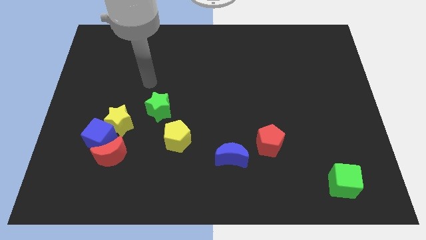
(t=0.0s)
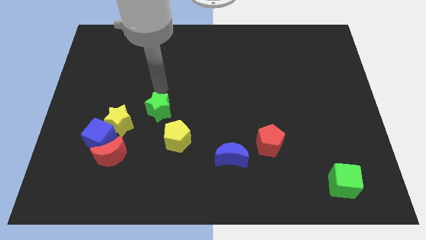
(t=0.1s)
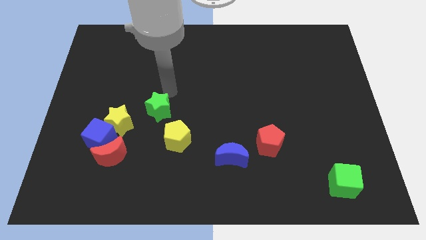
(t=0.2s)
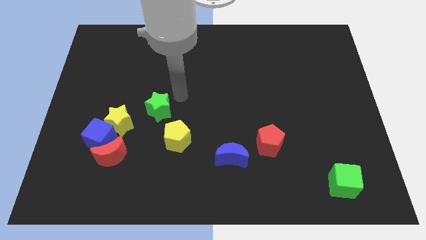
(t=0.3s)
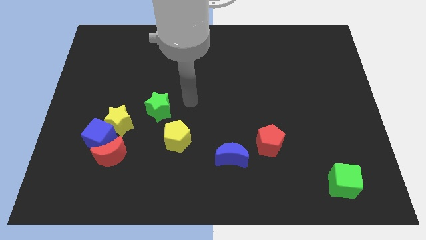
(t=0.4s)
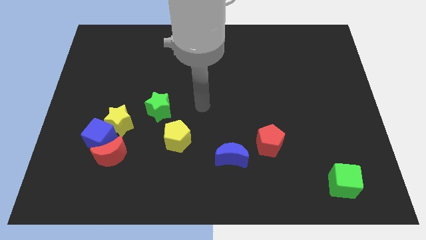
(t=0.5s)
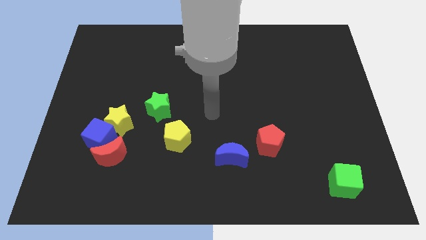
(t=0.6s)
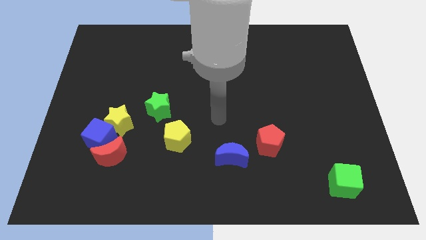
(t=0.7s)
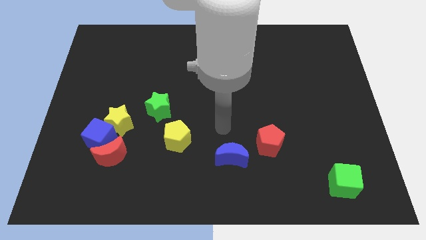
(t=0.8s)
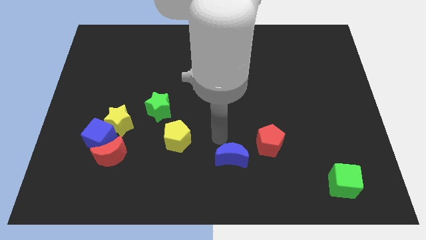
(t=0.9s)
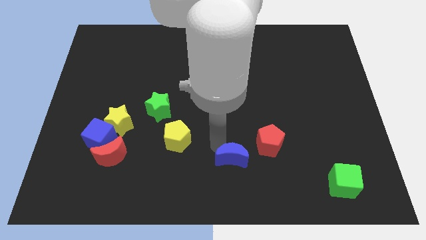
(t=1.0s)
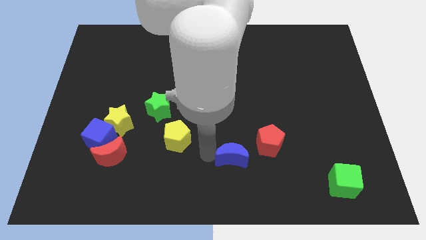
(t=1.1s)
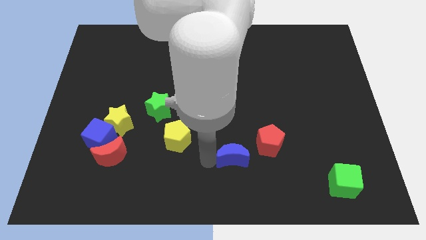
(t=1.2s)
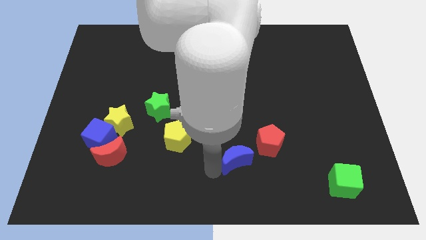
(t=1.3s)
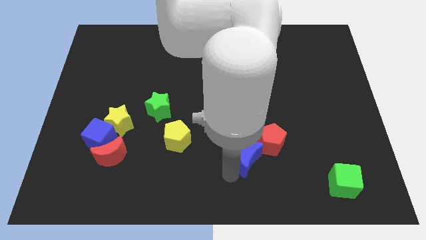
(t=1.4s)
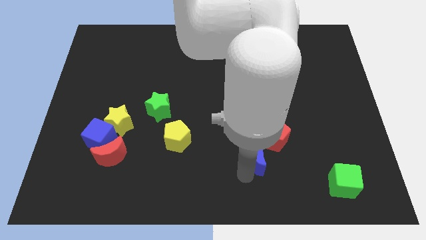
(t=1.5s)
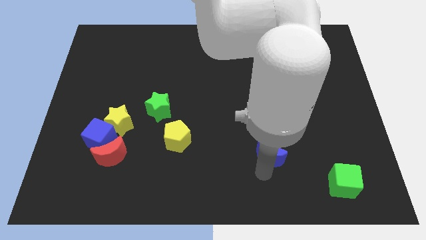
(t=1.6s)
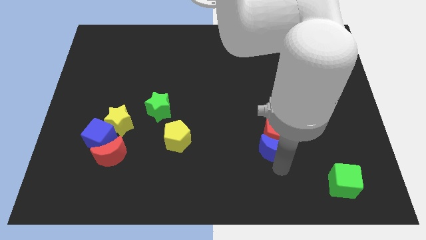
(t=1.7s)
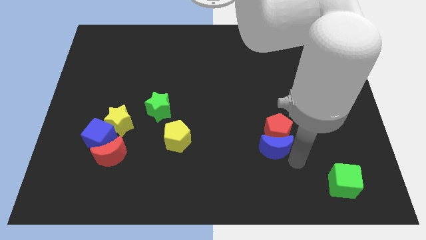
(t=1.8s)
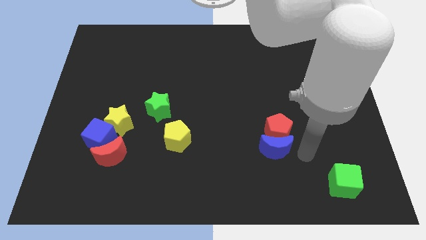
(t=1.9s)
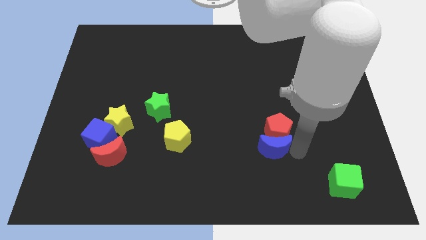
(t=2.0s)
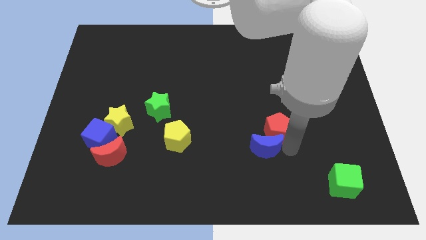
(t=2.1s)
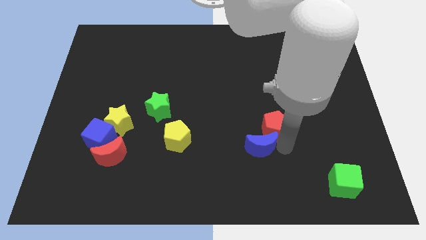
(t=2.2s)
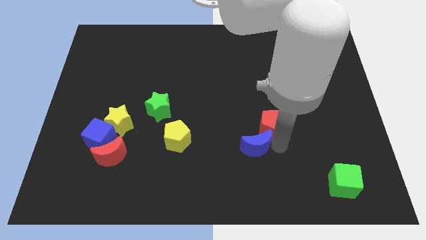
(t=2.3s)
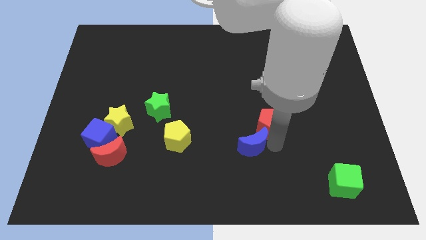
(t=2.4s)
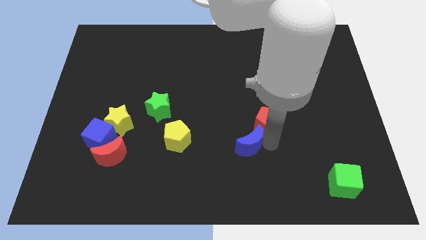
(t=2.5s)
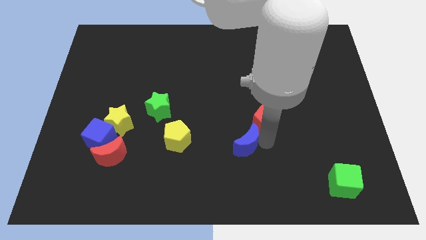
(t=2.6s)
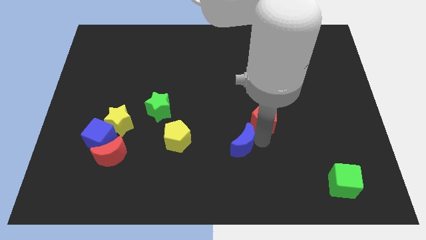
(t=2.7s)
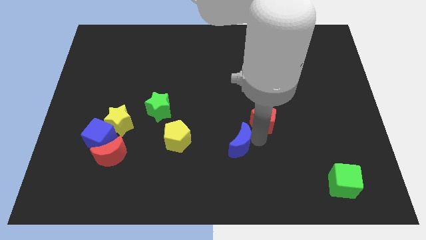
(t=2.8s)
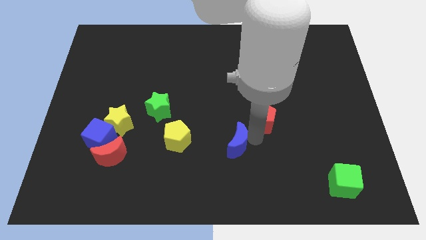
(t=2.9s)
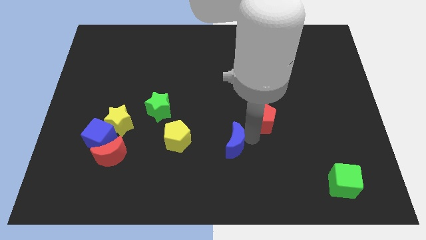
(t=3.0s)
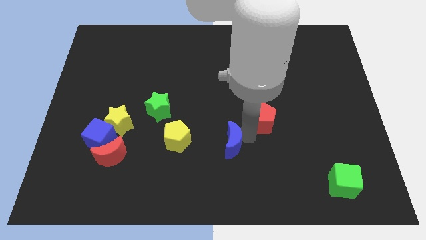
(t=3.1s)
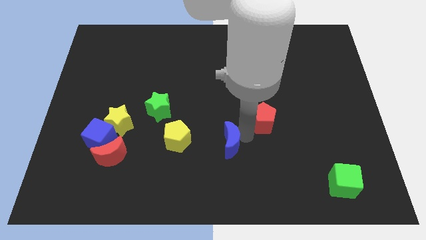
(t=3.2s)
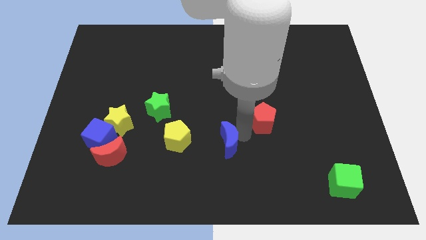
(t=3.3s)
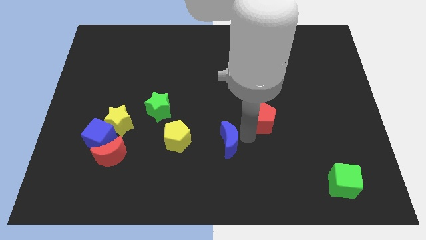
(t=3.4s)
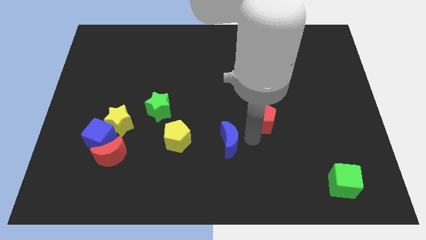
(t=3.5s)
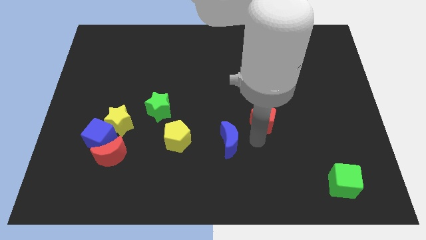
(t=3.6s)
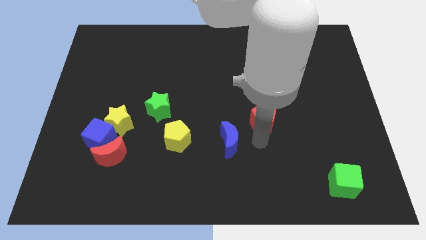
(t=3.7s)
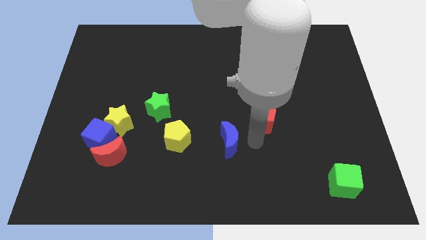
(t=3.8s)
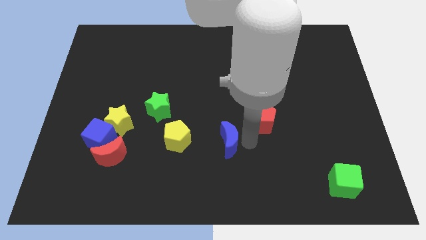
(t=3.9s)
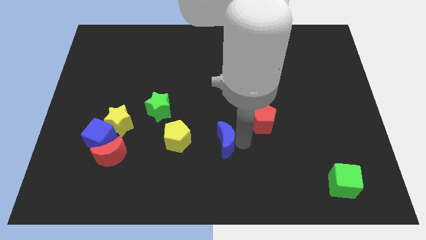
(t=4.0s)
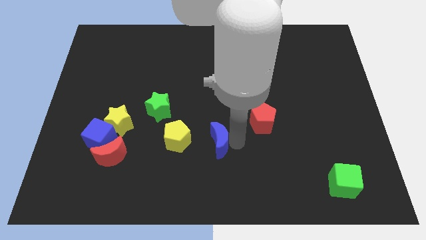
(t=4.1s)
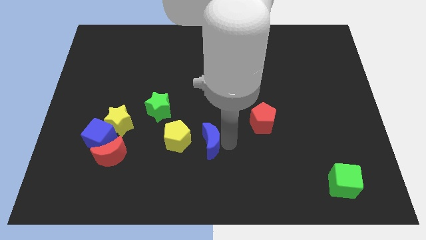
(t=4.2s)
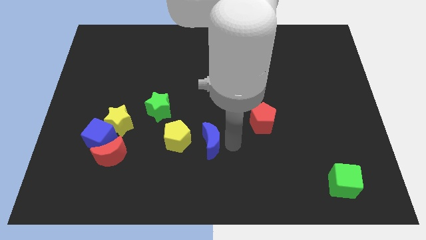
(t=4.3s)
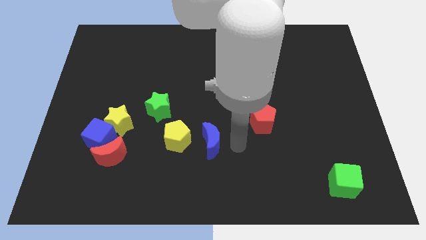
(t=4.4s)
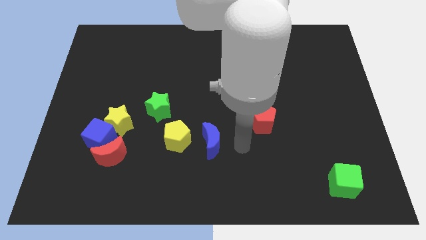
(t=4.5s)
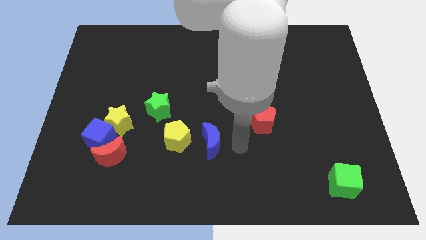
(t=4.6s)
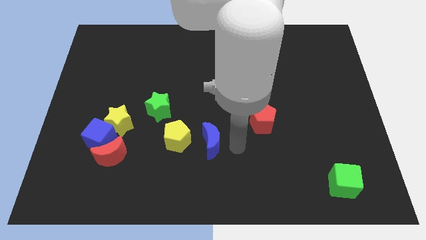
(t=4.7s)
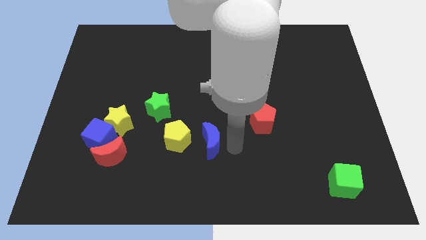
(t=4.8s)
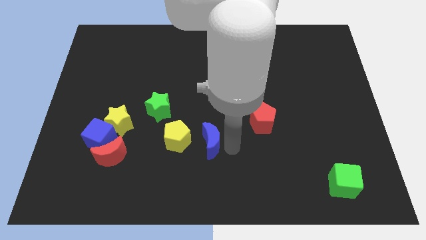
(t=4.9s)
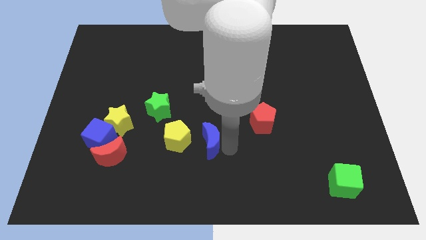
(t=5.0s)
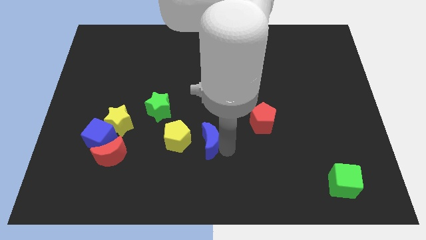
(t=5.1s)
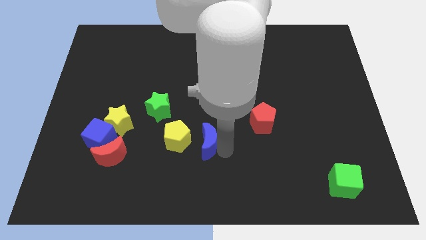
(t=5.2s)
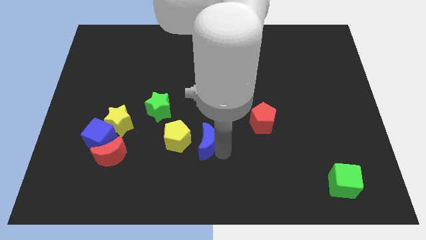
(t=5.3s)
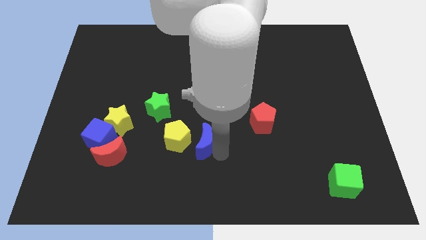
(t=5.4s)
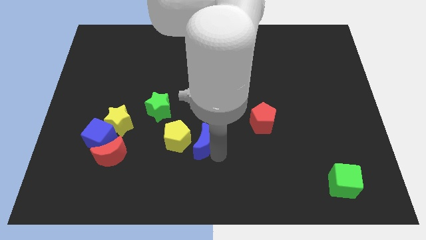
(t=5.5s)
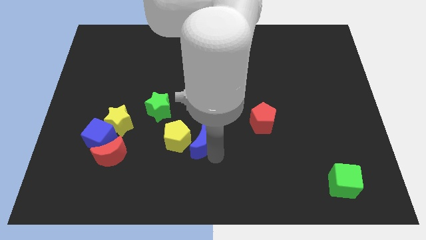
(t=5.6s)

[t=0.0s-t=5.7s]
slide the blue moon next to the yellow pentagon

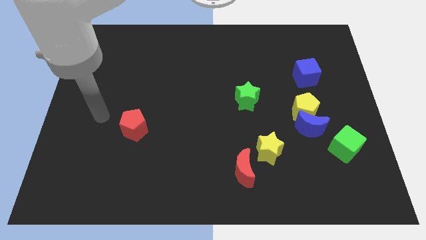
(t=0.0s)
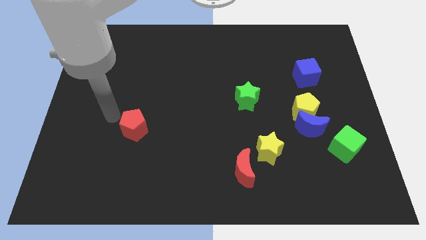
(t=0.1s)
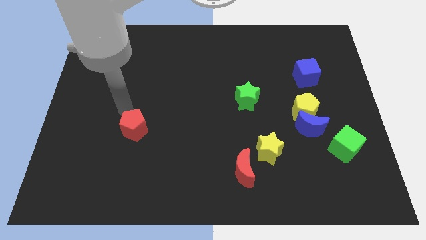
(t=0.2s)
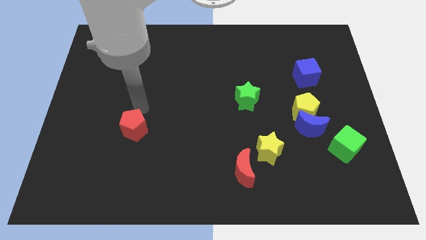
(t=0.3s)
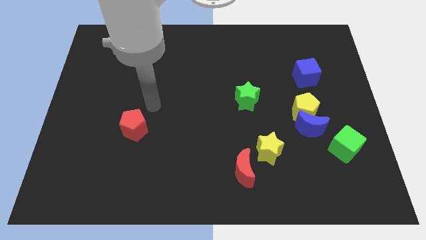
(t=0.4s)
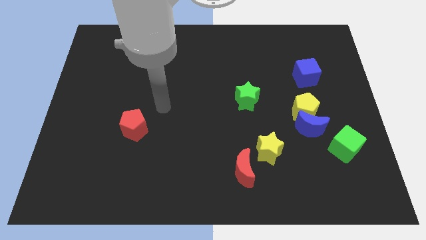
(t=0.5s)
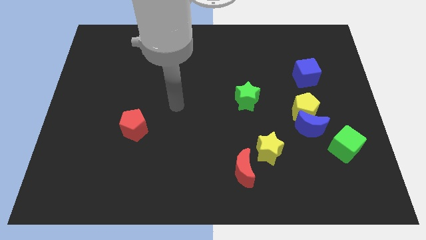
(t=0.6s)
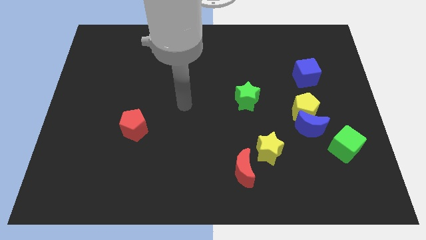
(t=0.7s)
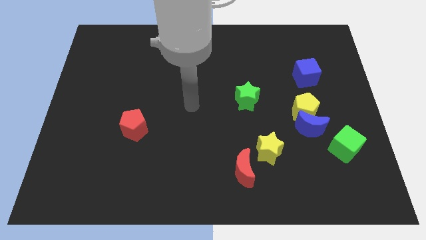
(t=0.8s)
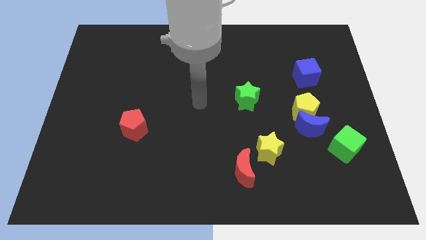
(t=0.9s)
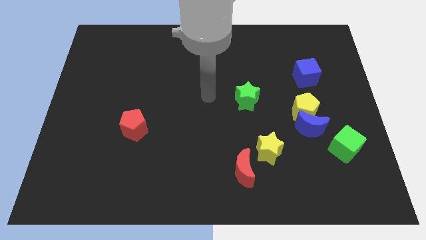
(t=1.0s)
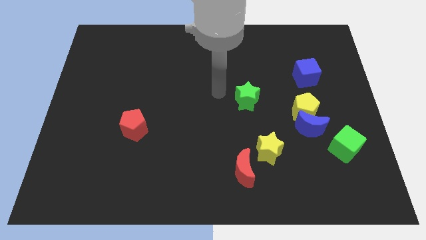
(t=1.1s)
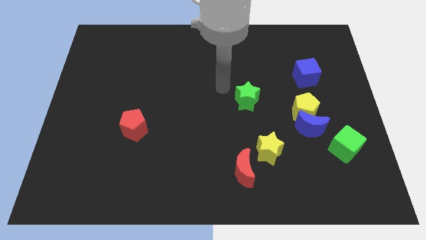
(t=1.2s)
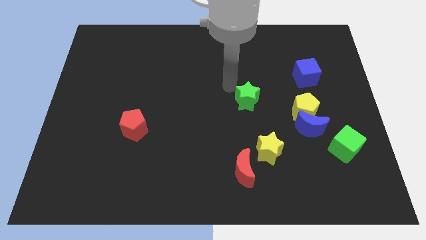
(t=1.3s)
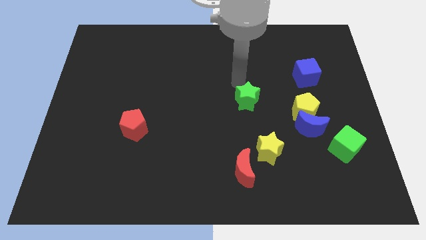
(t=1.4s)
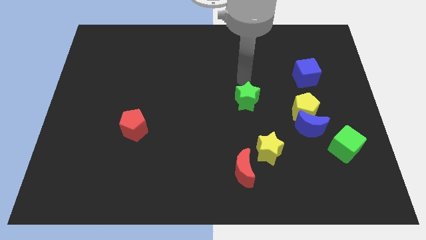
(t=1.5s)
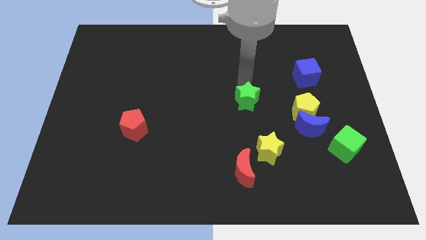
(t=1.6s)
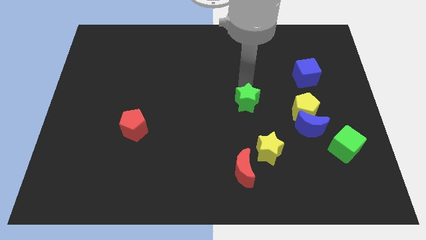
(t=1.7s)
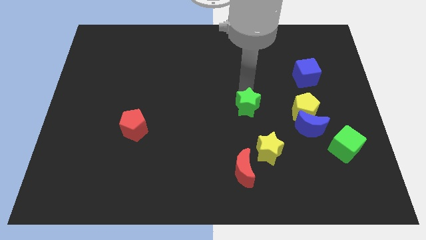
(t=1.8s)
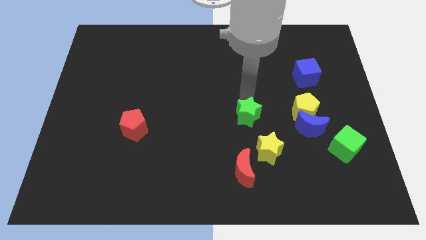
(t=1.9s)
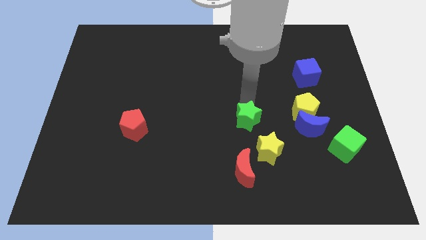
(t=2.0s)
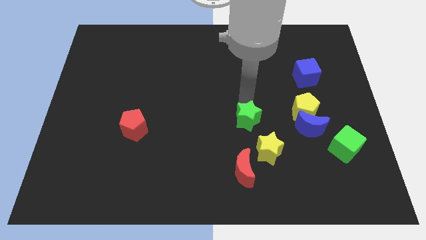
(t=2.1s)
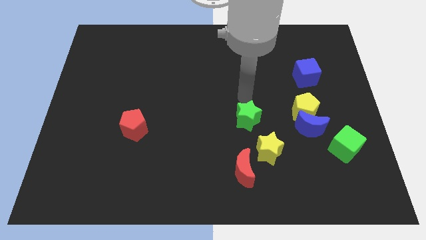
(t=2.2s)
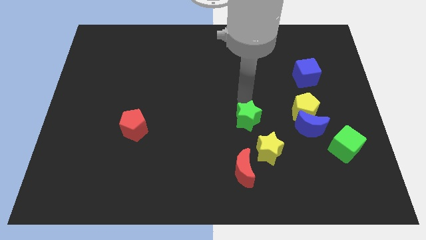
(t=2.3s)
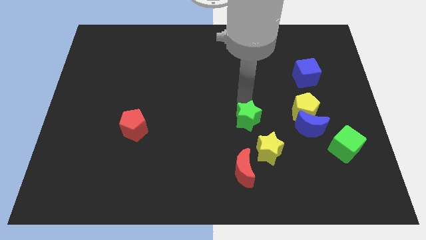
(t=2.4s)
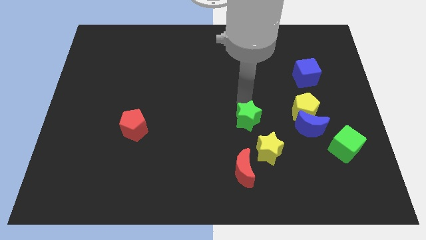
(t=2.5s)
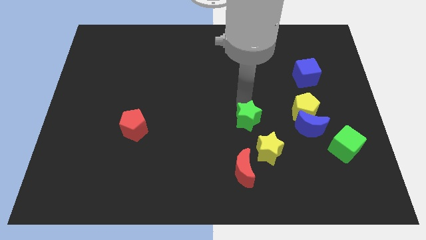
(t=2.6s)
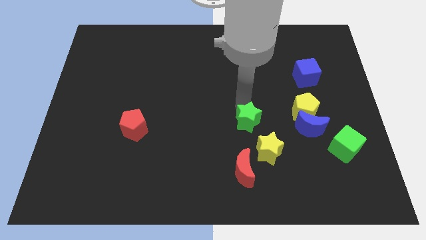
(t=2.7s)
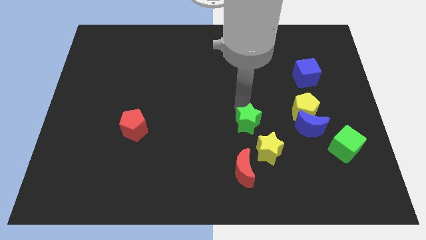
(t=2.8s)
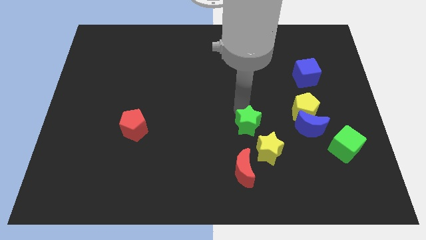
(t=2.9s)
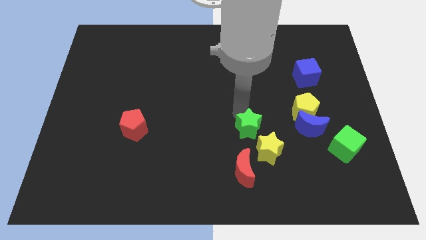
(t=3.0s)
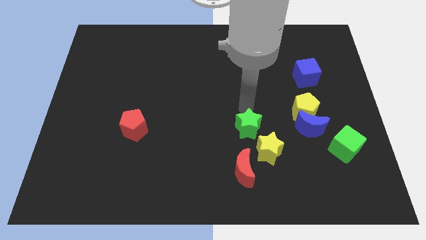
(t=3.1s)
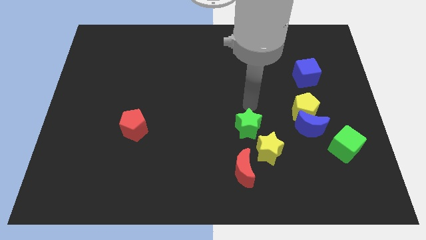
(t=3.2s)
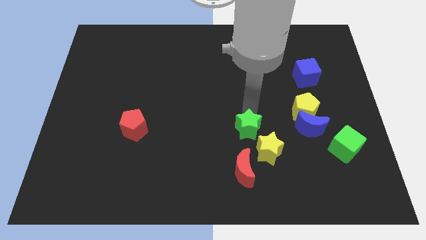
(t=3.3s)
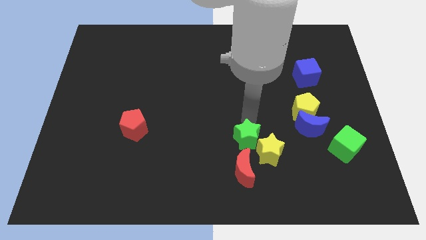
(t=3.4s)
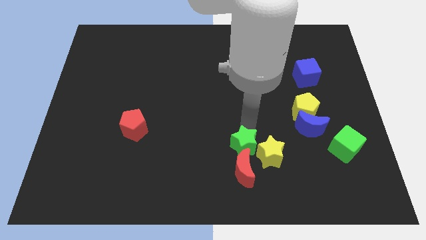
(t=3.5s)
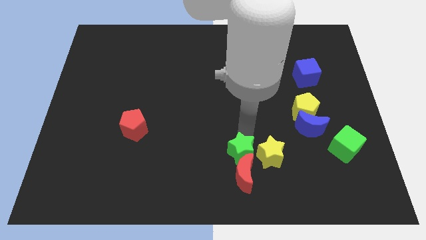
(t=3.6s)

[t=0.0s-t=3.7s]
move the green star towards the red moon
